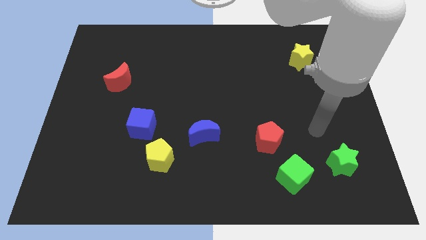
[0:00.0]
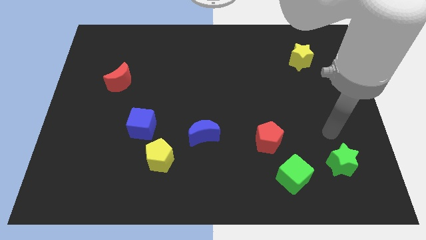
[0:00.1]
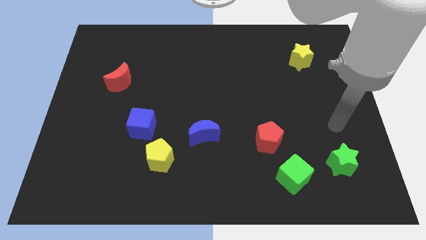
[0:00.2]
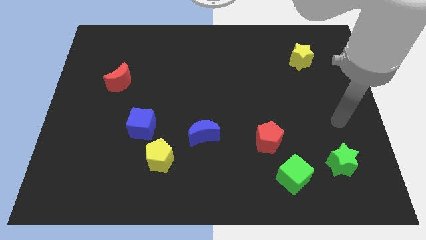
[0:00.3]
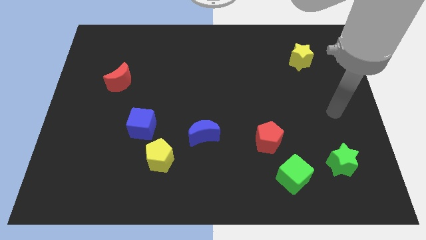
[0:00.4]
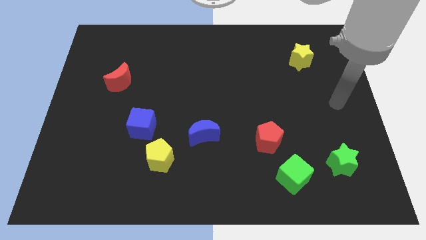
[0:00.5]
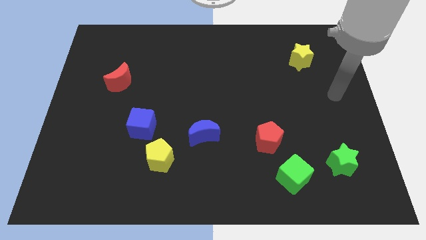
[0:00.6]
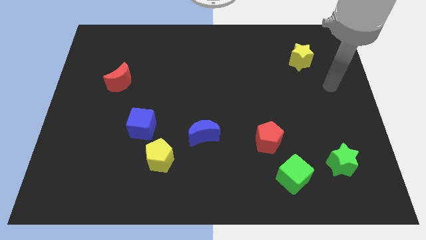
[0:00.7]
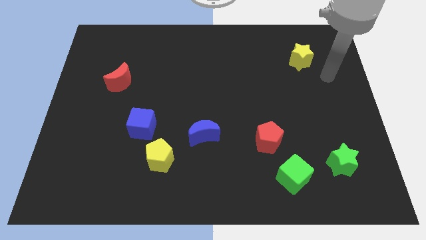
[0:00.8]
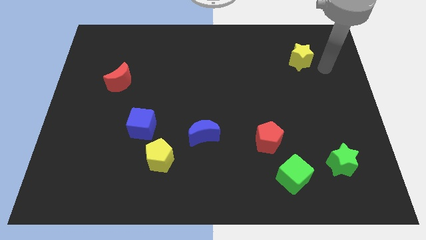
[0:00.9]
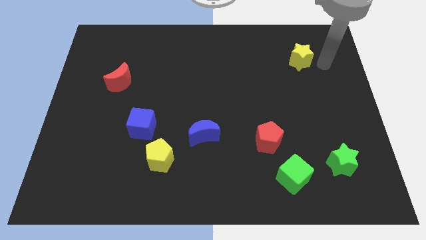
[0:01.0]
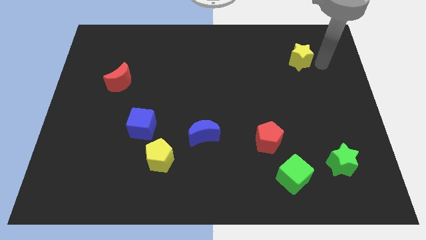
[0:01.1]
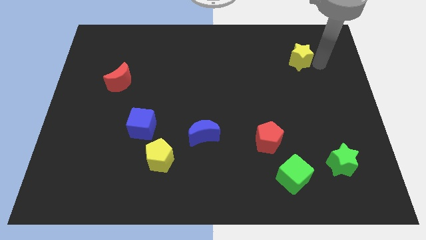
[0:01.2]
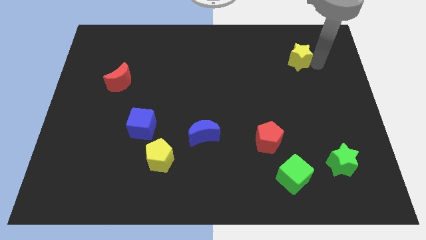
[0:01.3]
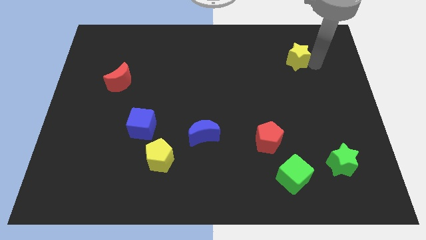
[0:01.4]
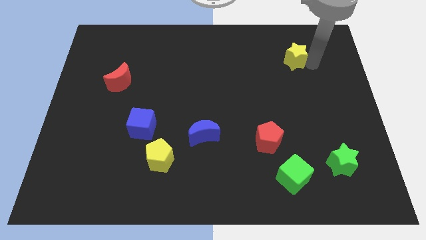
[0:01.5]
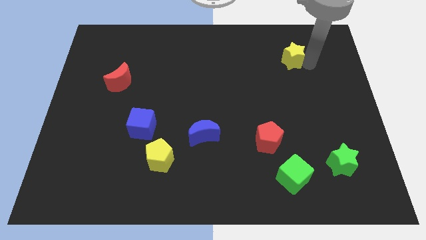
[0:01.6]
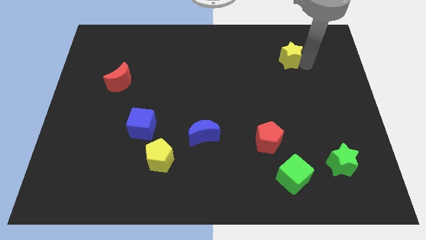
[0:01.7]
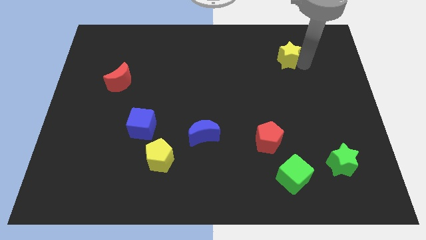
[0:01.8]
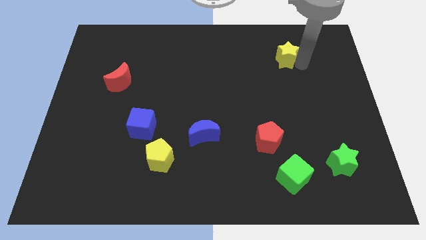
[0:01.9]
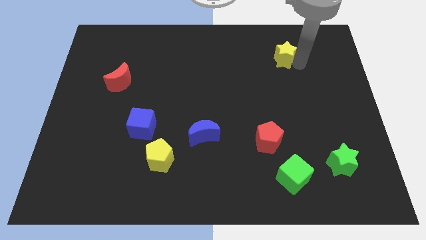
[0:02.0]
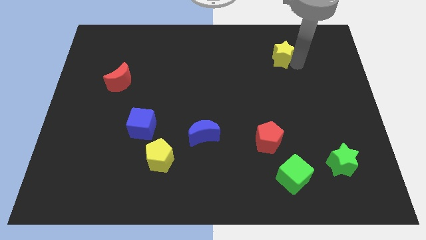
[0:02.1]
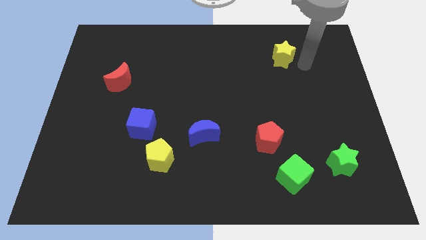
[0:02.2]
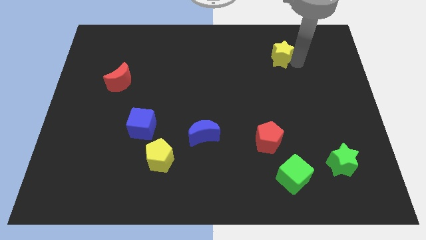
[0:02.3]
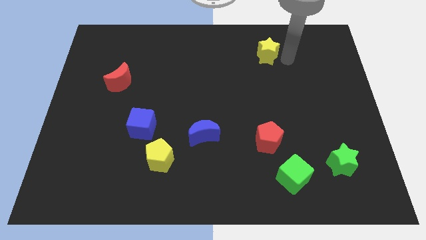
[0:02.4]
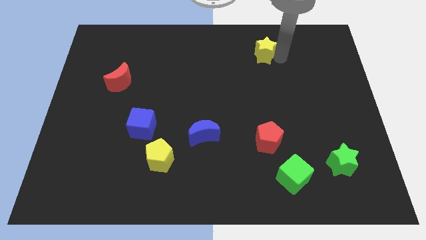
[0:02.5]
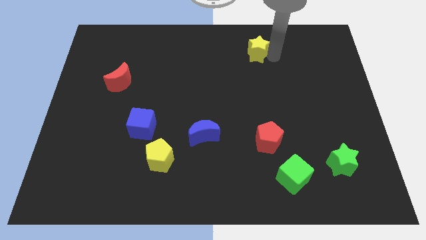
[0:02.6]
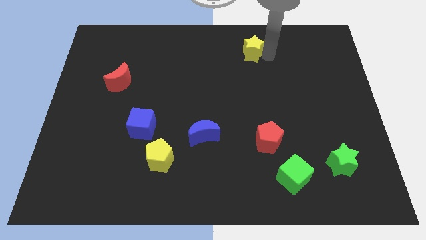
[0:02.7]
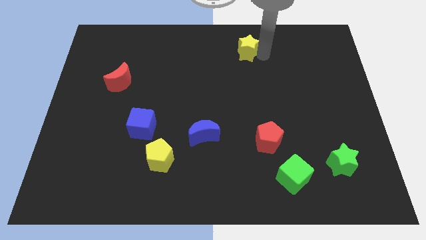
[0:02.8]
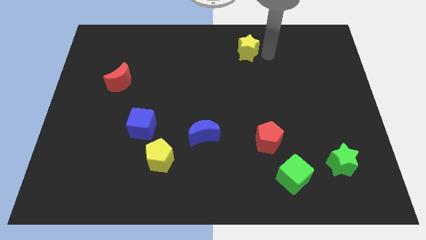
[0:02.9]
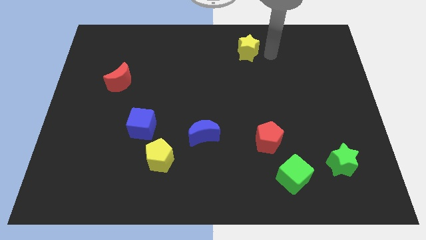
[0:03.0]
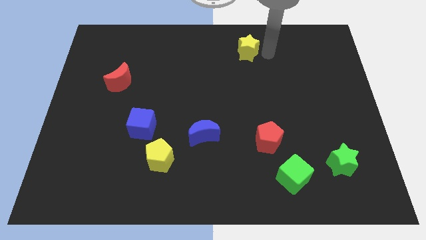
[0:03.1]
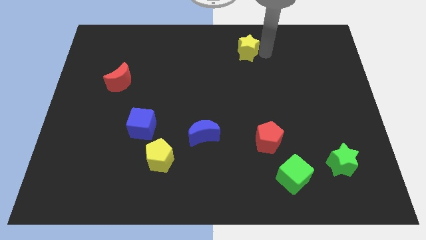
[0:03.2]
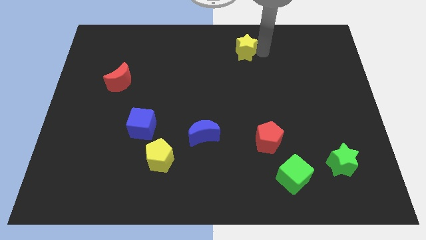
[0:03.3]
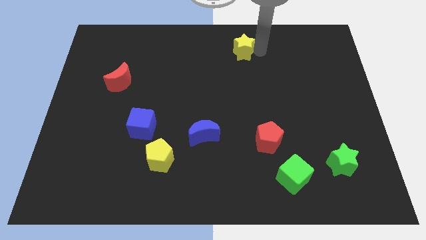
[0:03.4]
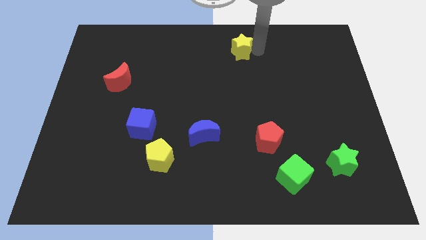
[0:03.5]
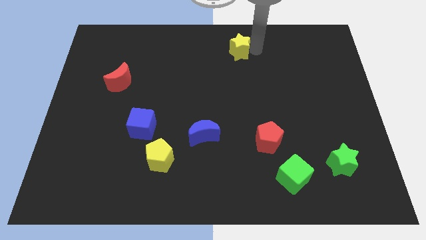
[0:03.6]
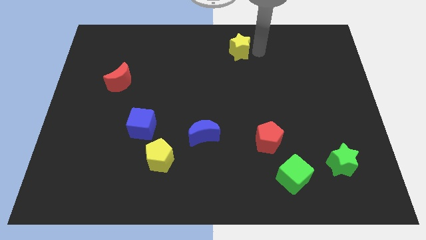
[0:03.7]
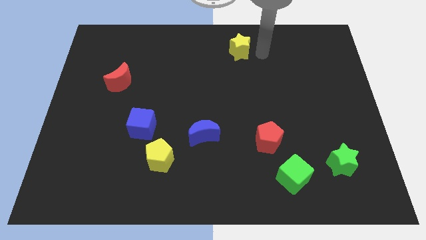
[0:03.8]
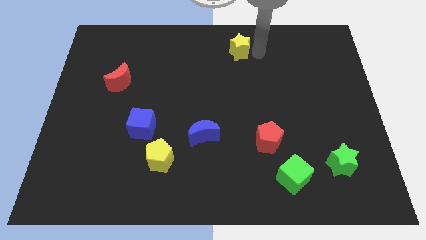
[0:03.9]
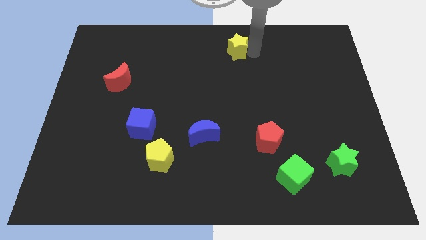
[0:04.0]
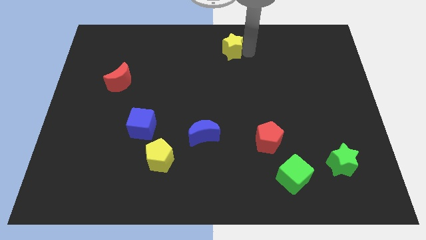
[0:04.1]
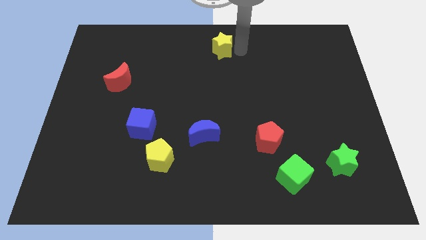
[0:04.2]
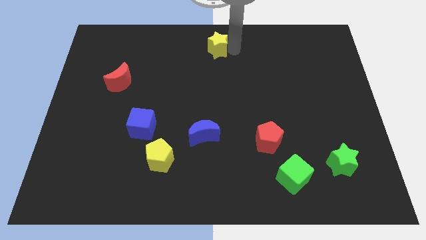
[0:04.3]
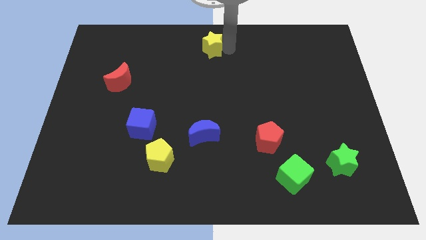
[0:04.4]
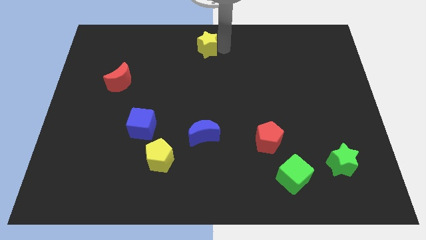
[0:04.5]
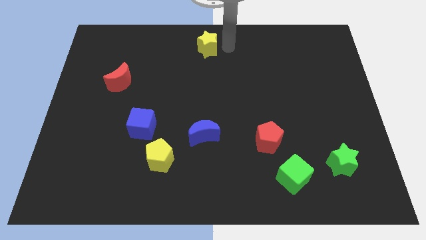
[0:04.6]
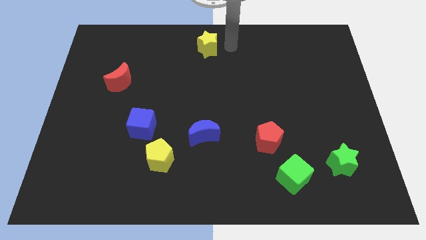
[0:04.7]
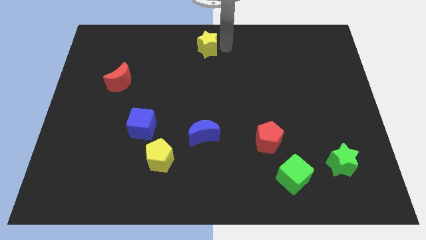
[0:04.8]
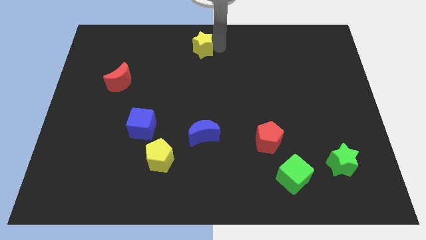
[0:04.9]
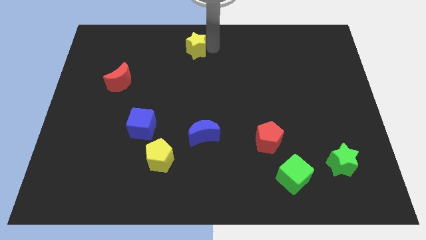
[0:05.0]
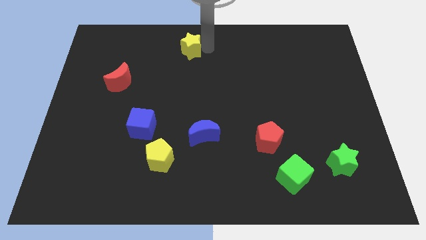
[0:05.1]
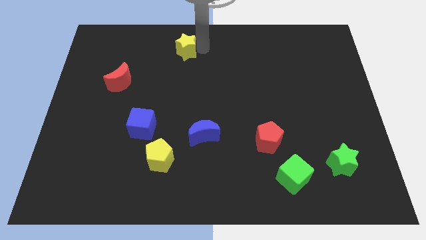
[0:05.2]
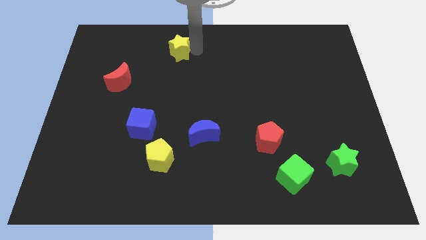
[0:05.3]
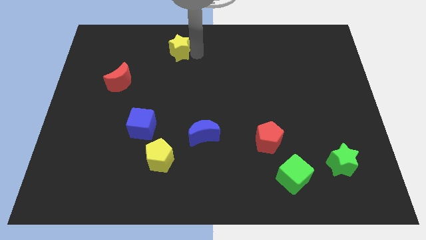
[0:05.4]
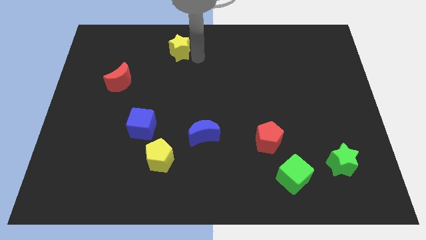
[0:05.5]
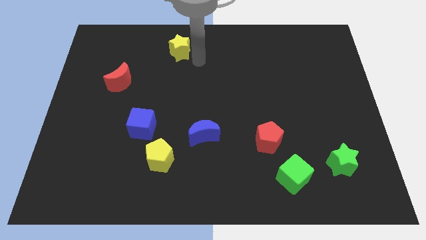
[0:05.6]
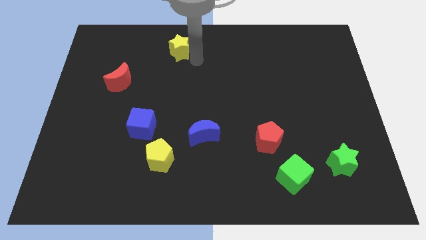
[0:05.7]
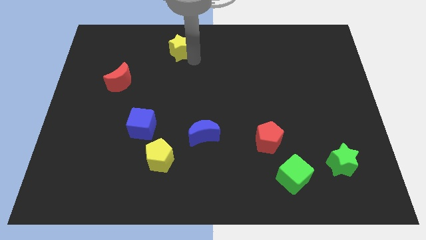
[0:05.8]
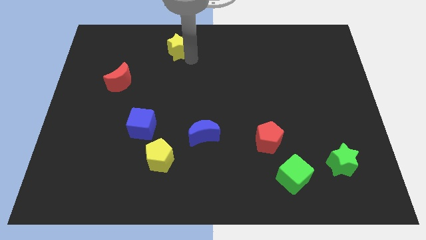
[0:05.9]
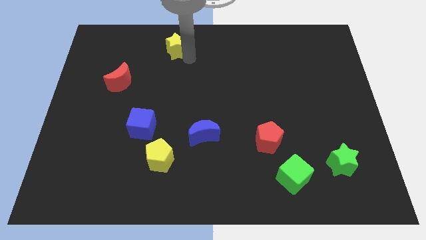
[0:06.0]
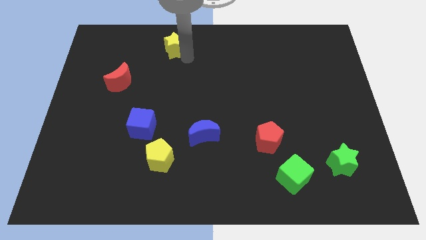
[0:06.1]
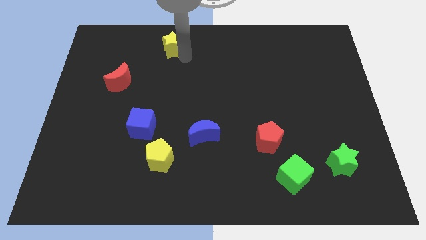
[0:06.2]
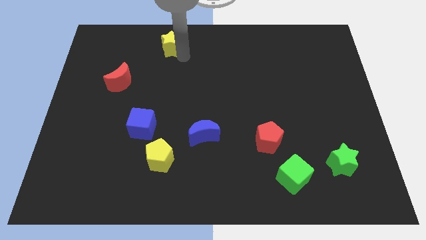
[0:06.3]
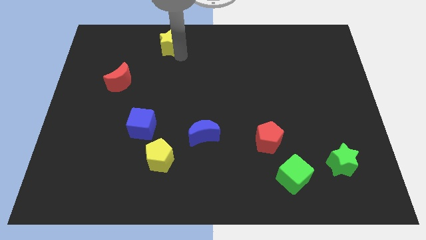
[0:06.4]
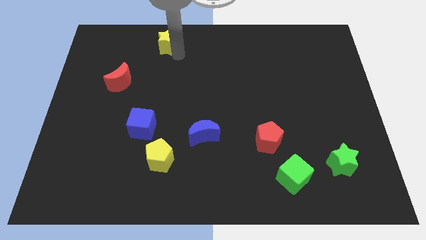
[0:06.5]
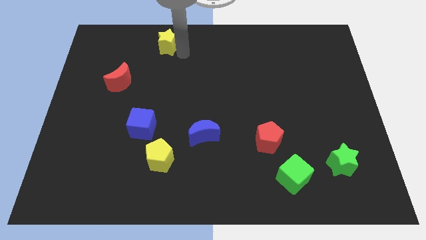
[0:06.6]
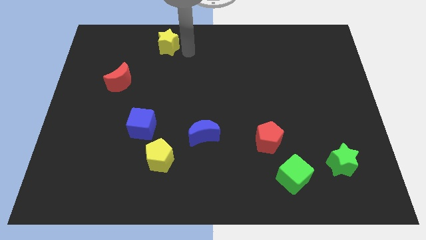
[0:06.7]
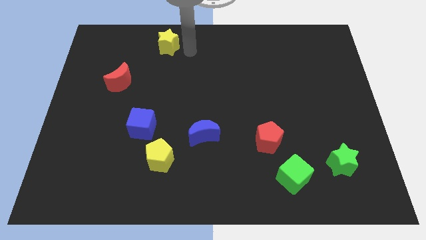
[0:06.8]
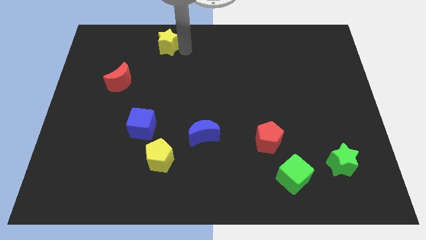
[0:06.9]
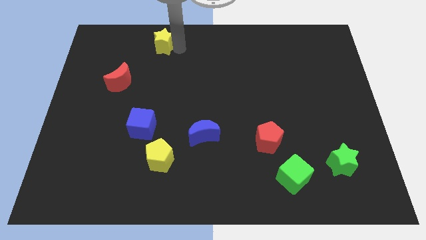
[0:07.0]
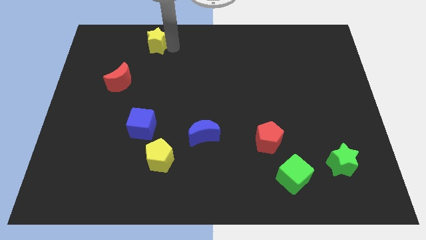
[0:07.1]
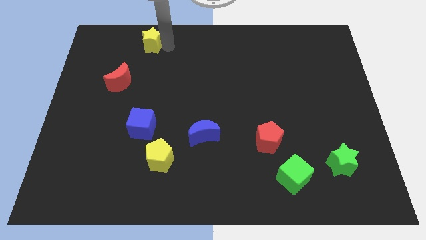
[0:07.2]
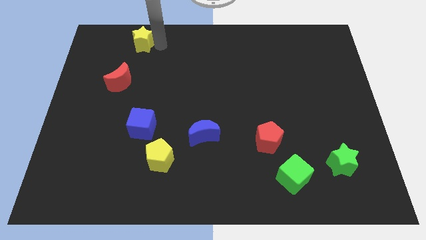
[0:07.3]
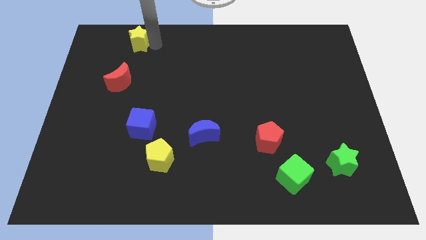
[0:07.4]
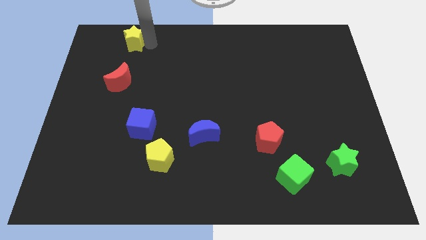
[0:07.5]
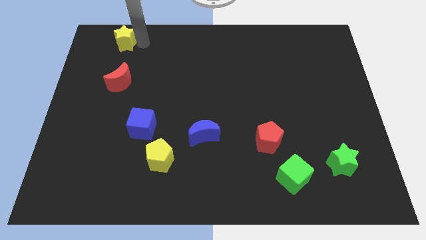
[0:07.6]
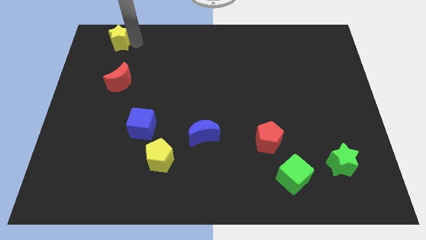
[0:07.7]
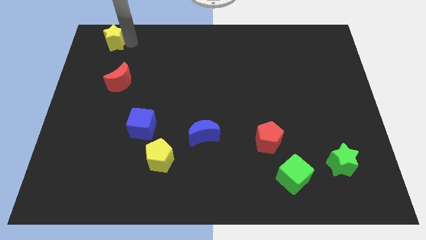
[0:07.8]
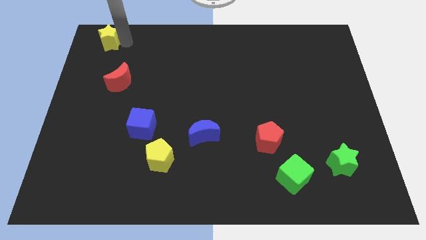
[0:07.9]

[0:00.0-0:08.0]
put the yellow star to the top left of the board
